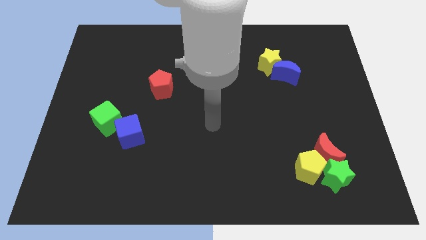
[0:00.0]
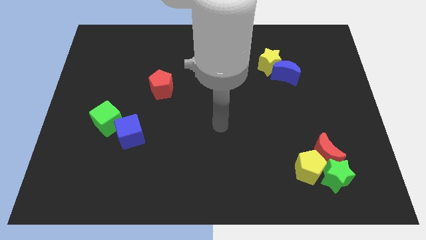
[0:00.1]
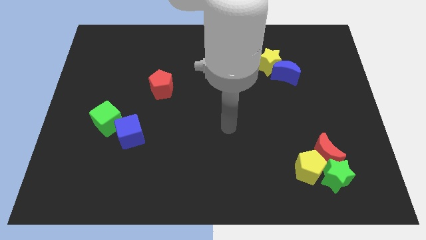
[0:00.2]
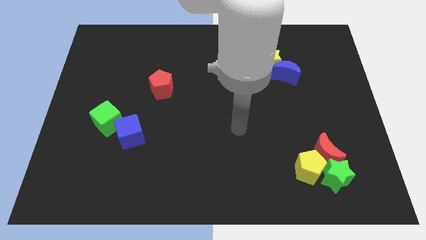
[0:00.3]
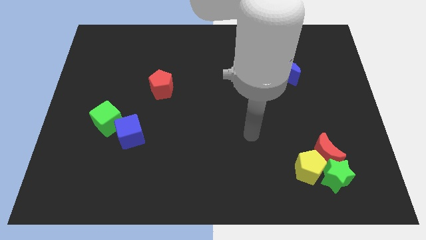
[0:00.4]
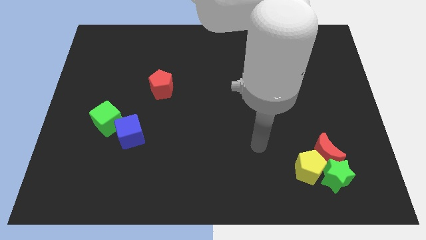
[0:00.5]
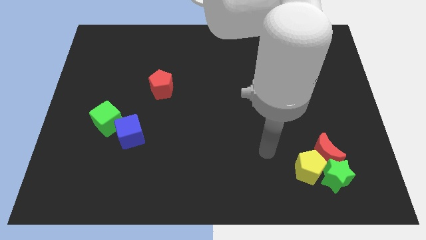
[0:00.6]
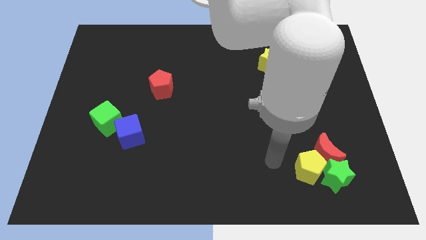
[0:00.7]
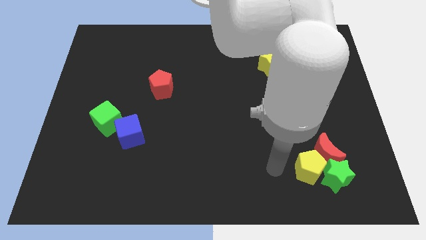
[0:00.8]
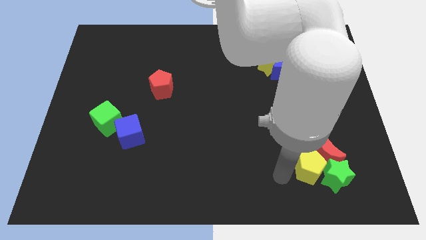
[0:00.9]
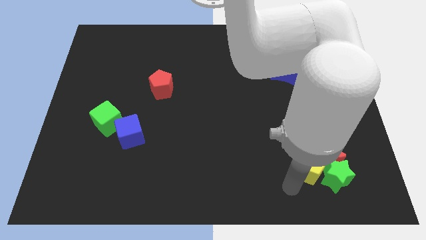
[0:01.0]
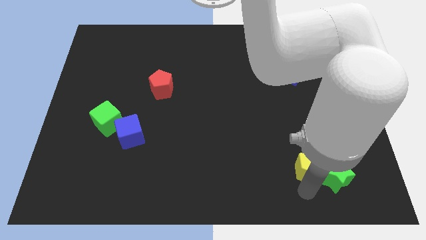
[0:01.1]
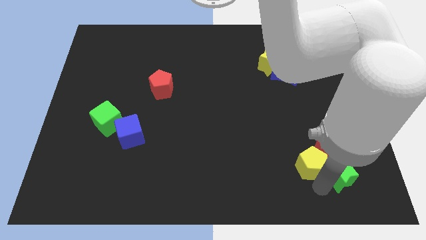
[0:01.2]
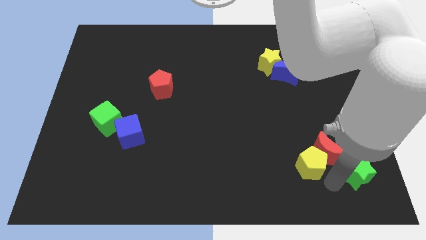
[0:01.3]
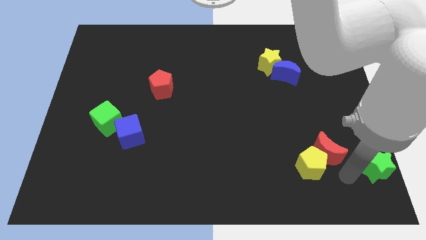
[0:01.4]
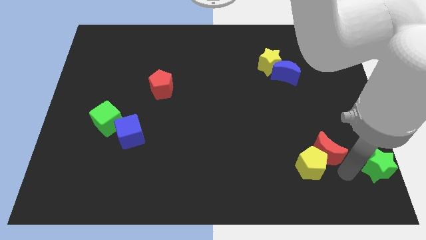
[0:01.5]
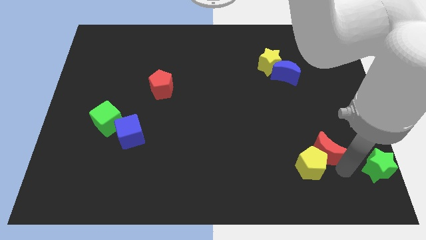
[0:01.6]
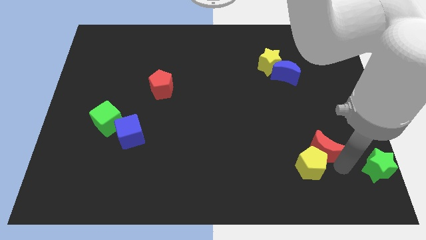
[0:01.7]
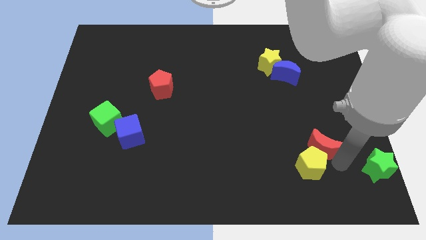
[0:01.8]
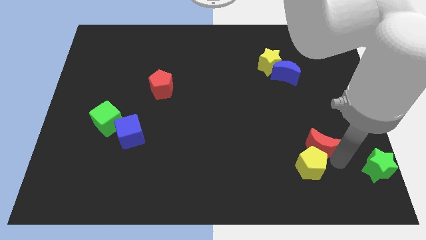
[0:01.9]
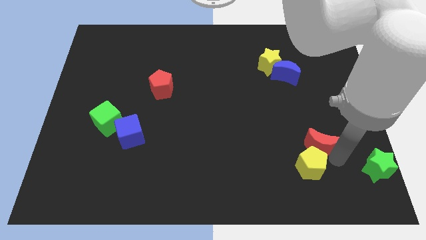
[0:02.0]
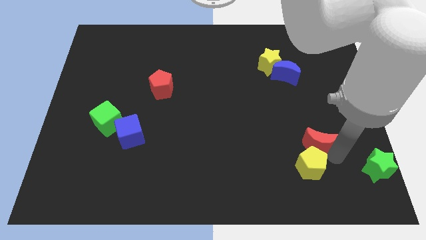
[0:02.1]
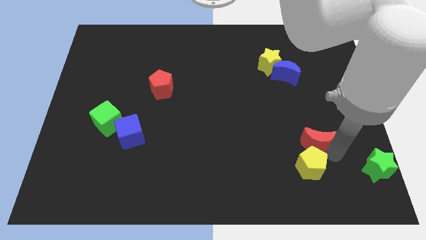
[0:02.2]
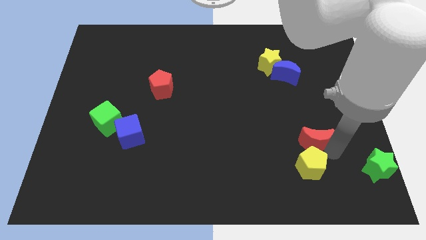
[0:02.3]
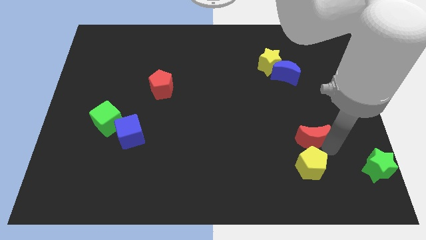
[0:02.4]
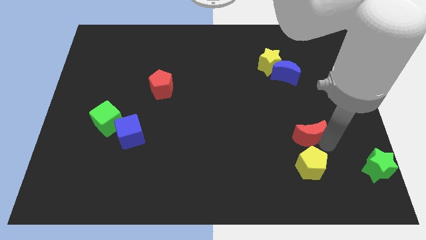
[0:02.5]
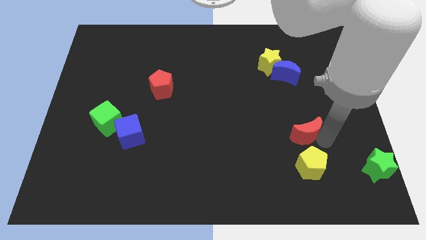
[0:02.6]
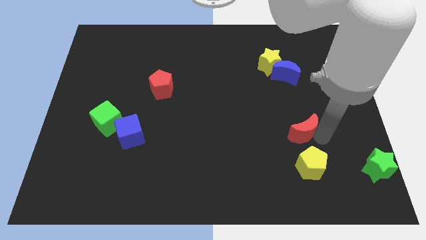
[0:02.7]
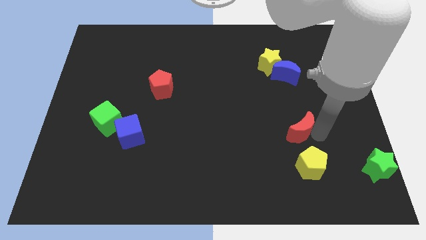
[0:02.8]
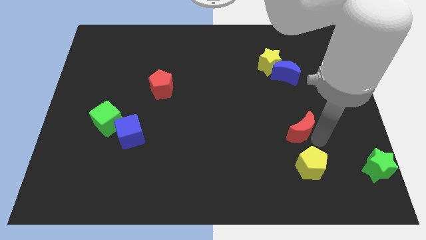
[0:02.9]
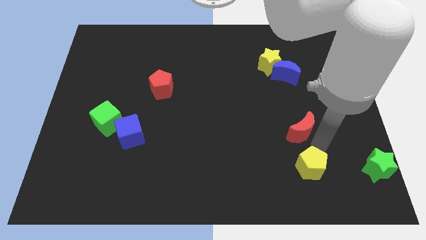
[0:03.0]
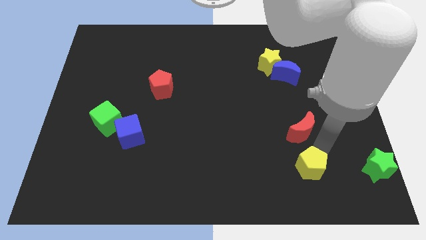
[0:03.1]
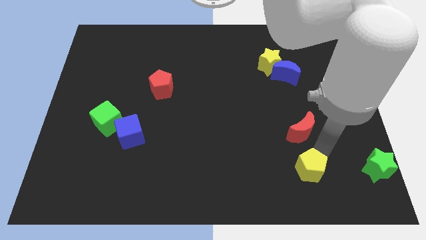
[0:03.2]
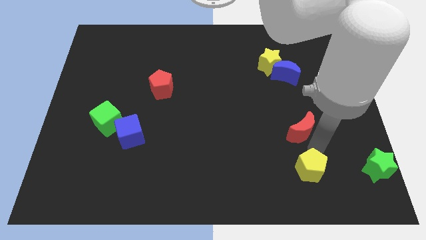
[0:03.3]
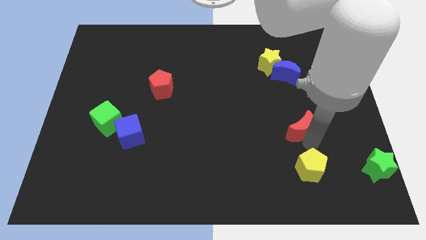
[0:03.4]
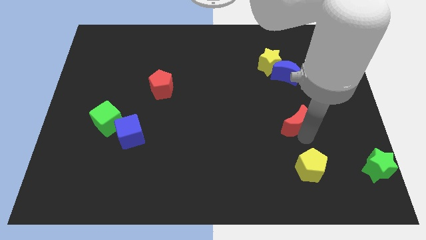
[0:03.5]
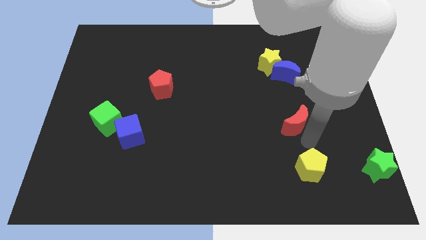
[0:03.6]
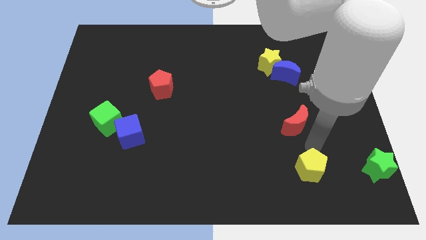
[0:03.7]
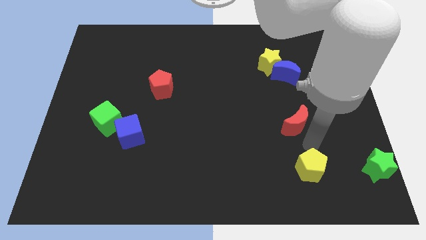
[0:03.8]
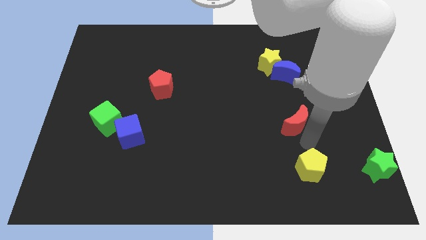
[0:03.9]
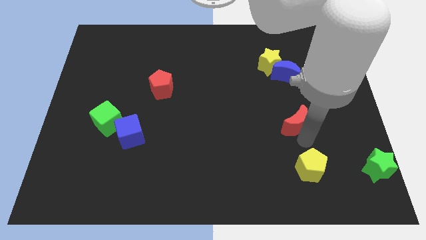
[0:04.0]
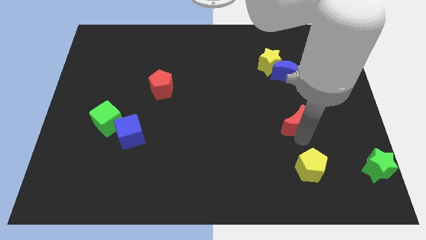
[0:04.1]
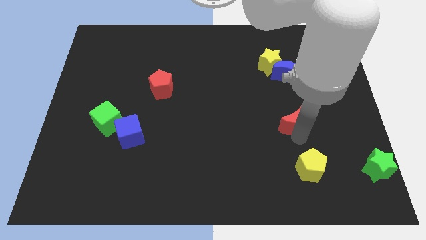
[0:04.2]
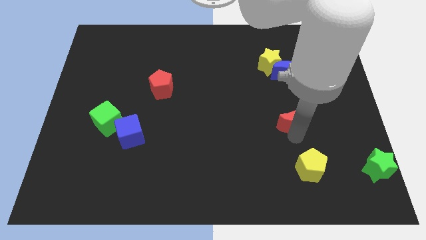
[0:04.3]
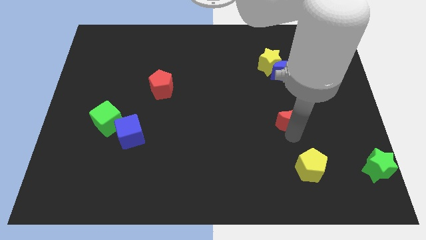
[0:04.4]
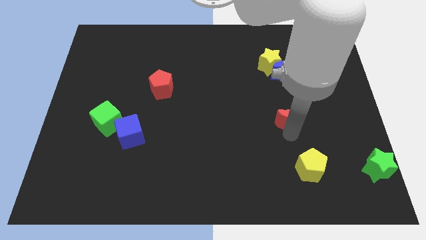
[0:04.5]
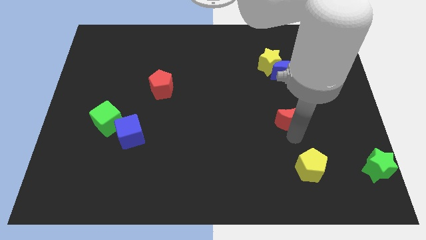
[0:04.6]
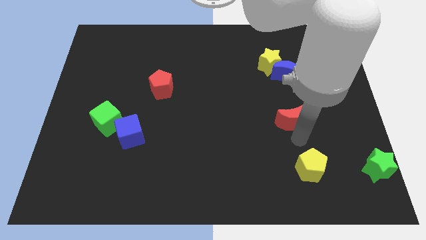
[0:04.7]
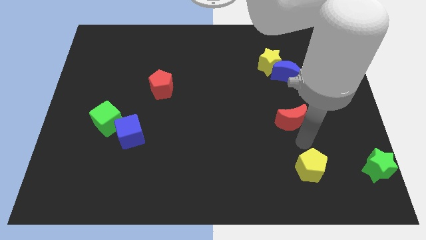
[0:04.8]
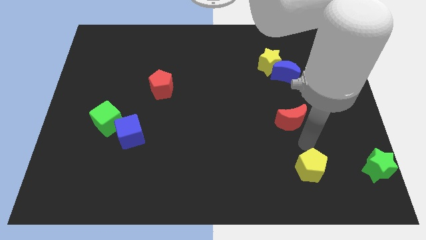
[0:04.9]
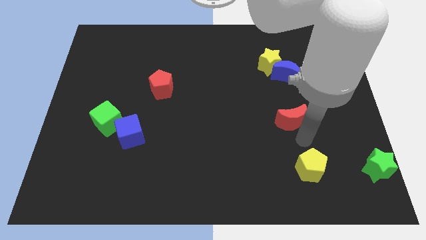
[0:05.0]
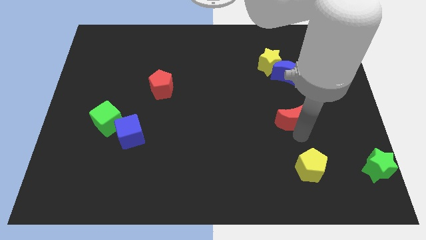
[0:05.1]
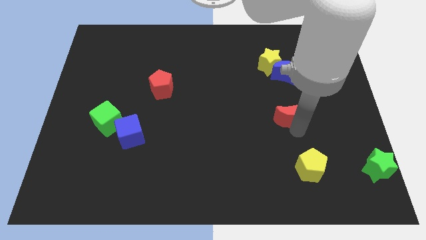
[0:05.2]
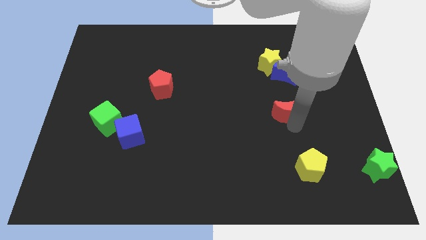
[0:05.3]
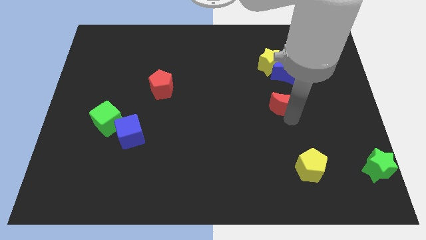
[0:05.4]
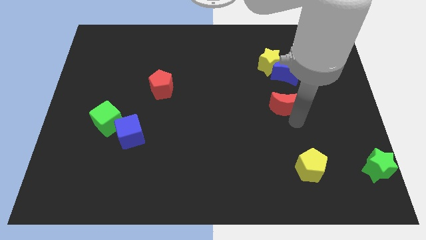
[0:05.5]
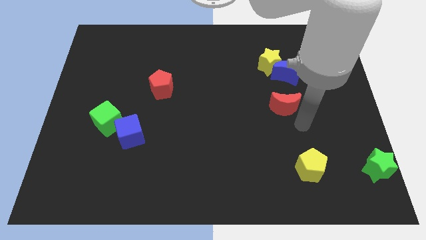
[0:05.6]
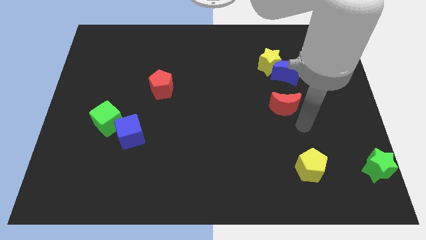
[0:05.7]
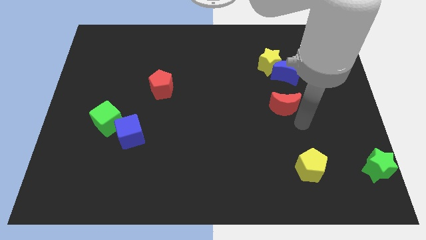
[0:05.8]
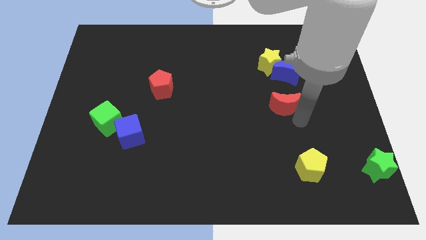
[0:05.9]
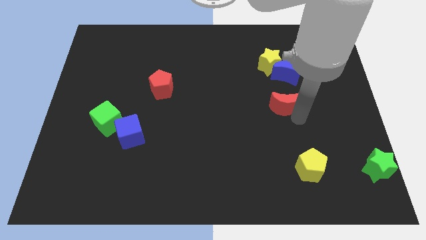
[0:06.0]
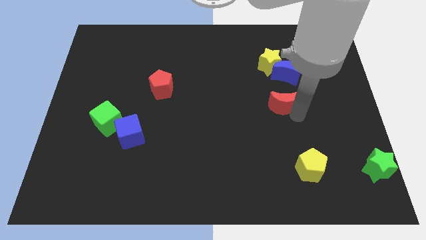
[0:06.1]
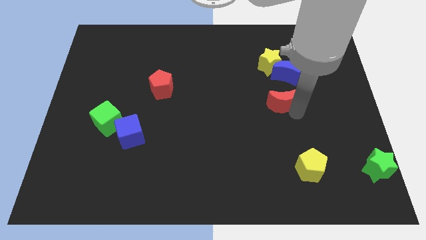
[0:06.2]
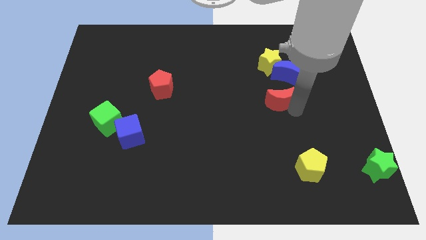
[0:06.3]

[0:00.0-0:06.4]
move the red moon diagonally down and to the left of the blue moon

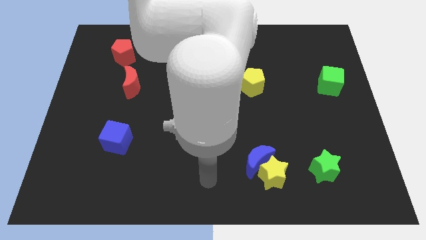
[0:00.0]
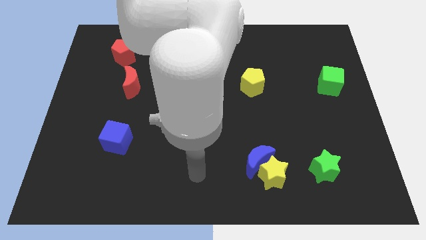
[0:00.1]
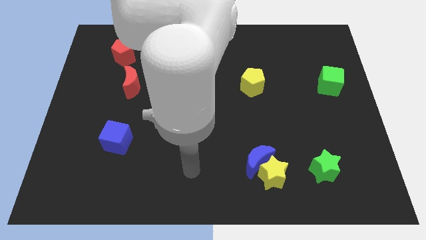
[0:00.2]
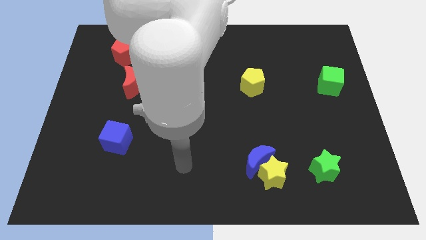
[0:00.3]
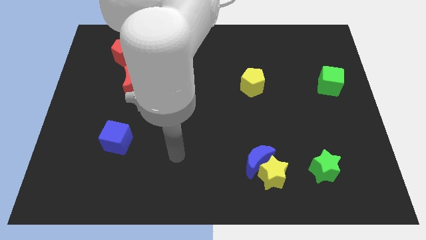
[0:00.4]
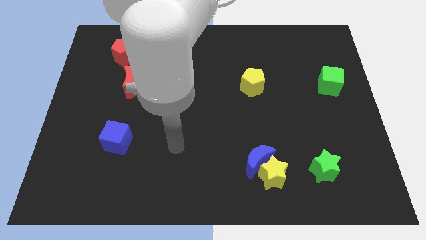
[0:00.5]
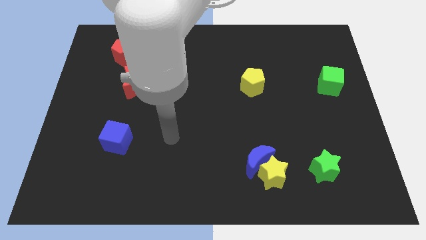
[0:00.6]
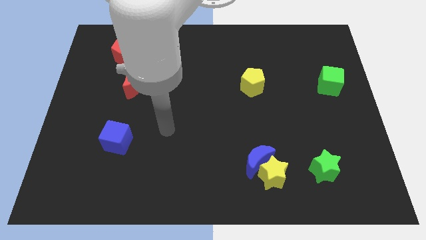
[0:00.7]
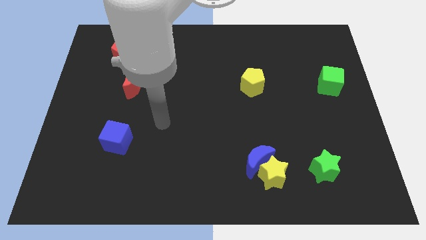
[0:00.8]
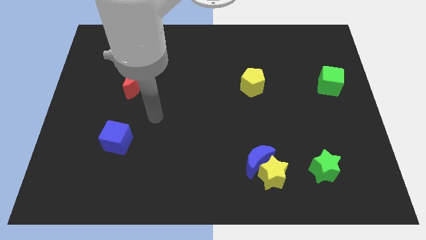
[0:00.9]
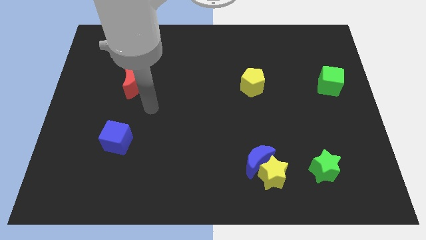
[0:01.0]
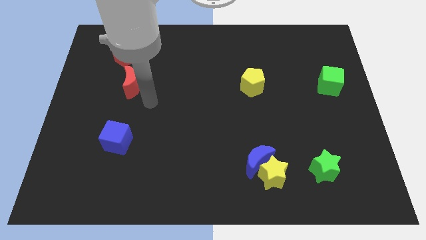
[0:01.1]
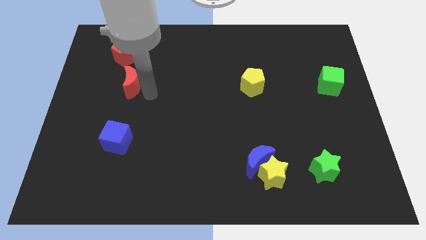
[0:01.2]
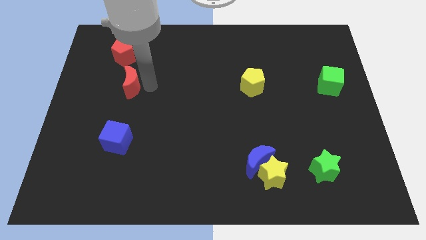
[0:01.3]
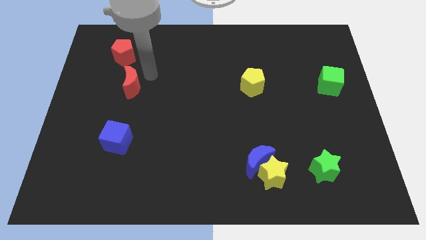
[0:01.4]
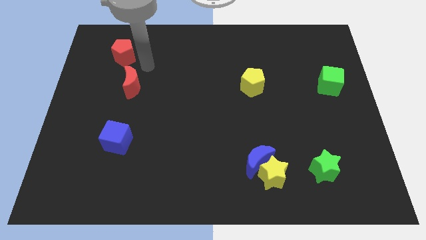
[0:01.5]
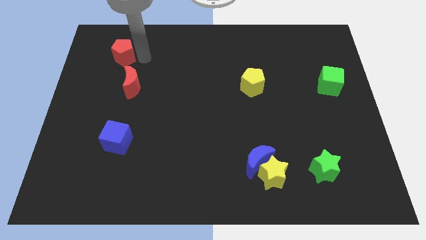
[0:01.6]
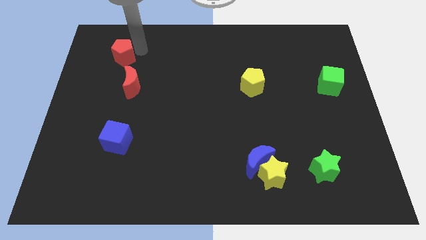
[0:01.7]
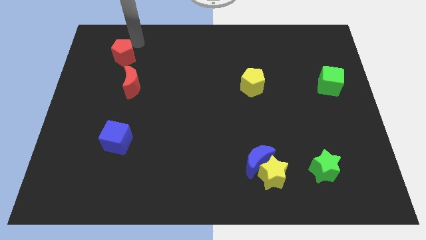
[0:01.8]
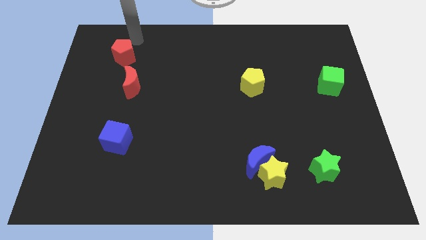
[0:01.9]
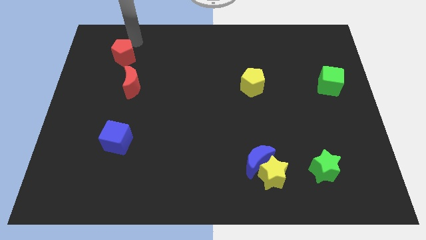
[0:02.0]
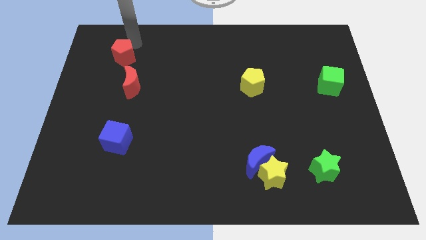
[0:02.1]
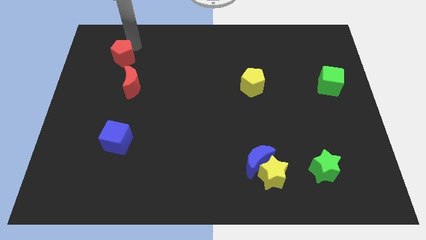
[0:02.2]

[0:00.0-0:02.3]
put the red pentagon diagonally up and to the left of the red moon
